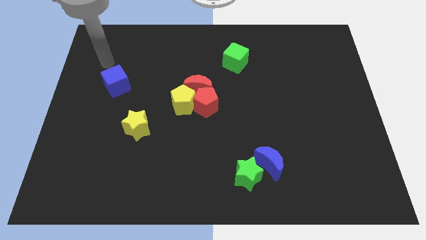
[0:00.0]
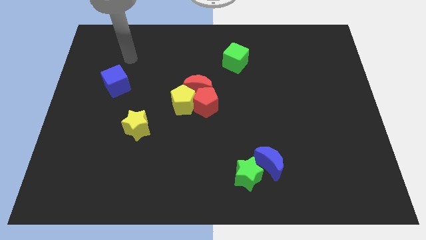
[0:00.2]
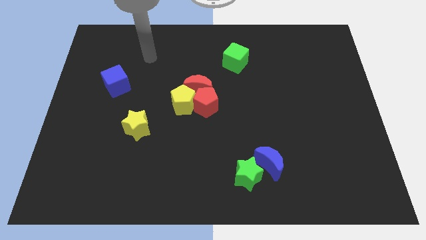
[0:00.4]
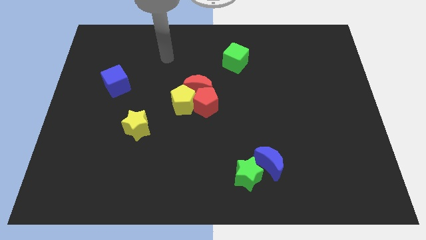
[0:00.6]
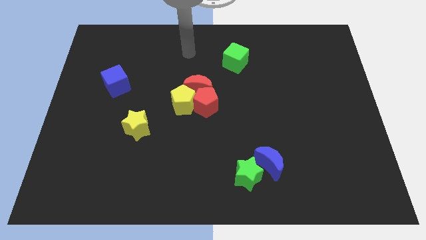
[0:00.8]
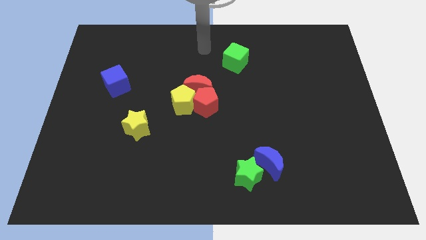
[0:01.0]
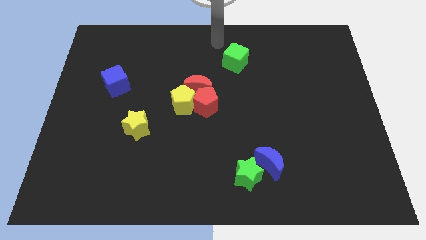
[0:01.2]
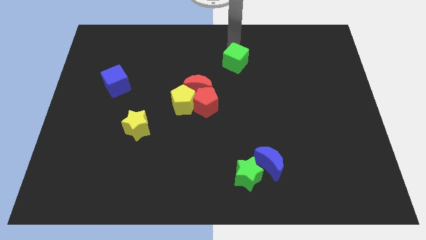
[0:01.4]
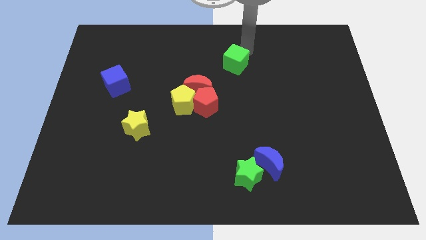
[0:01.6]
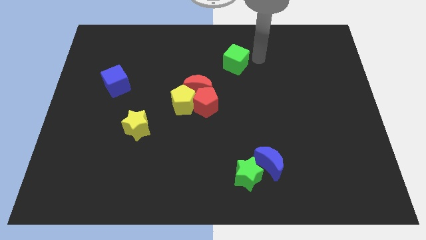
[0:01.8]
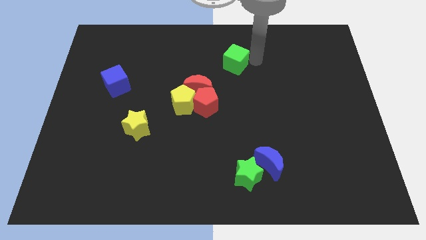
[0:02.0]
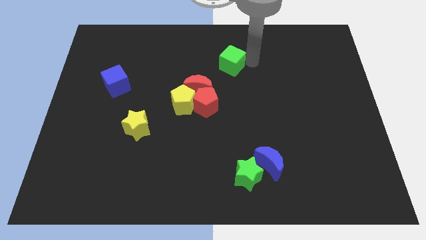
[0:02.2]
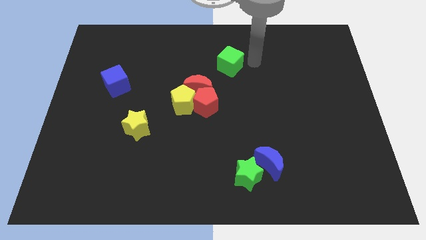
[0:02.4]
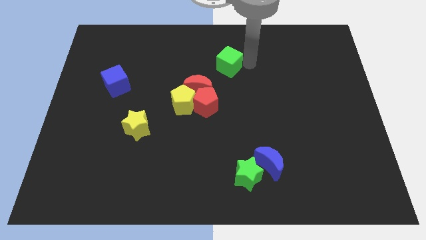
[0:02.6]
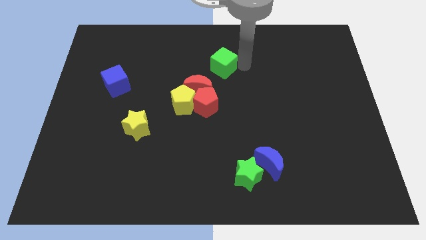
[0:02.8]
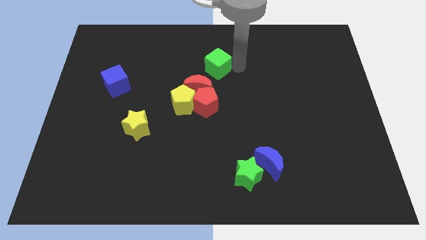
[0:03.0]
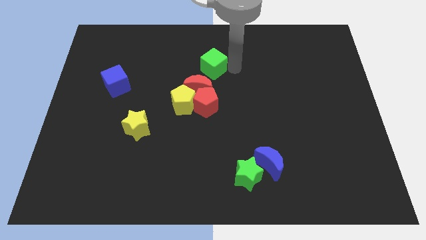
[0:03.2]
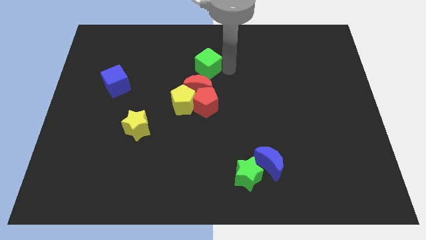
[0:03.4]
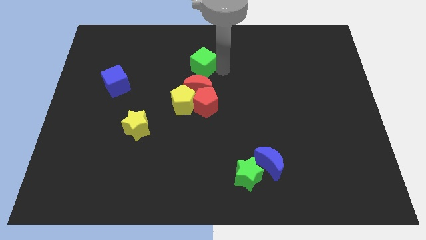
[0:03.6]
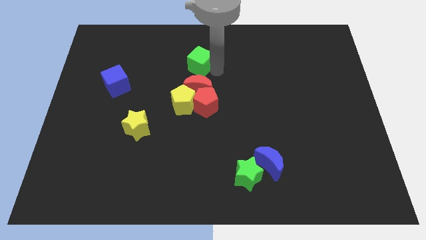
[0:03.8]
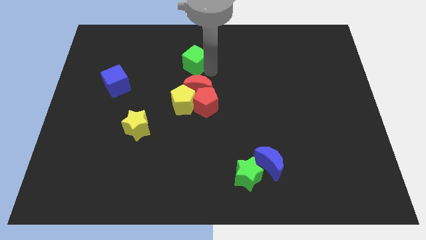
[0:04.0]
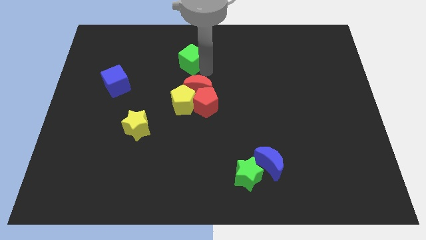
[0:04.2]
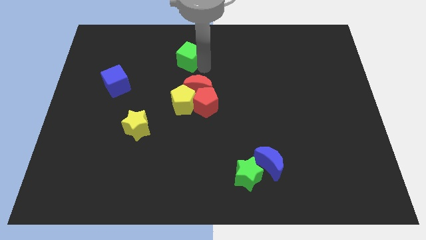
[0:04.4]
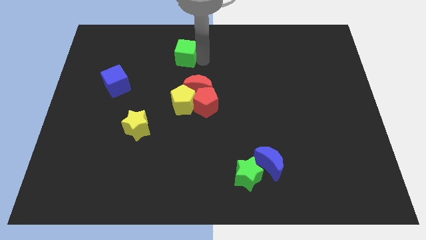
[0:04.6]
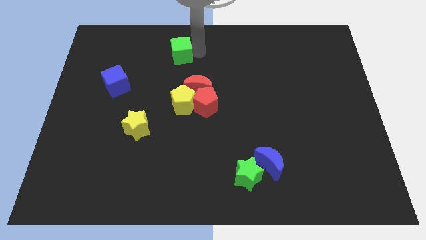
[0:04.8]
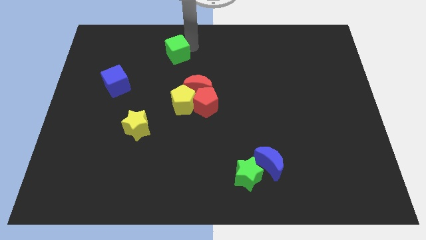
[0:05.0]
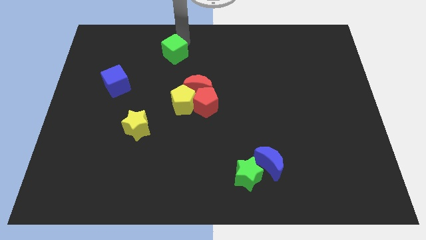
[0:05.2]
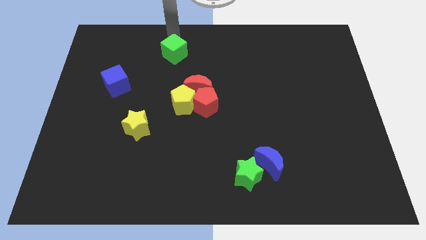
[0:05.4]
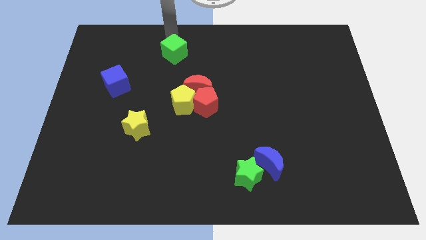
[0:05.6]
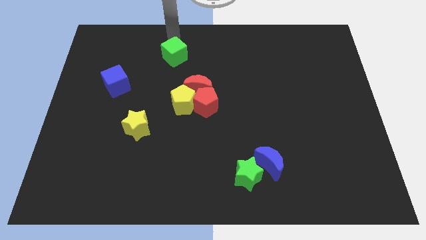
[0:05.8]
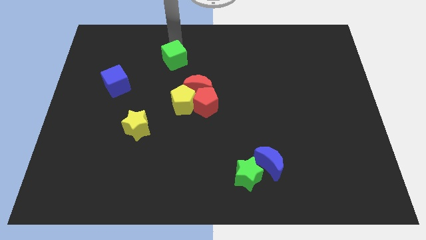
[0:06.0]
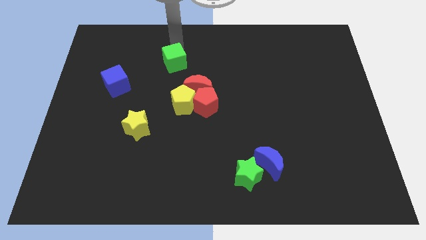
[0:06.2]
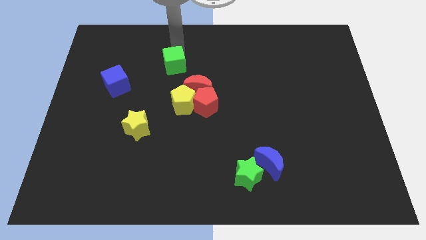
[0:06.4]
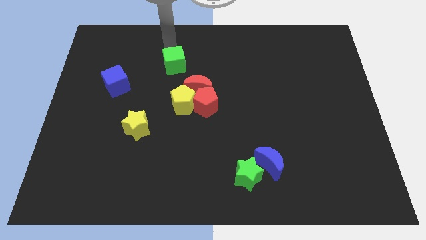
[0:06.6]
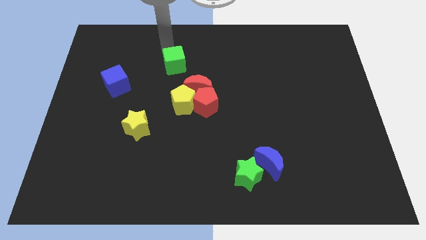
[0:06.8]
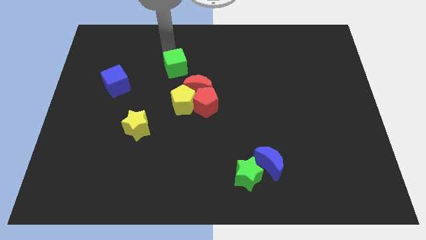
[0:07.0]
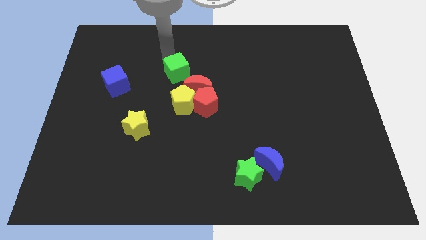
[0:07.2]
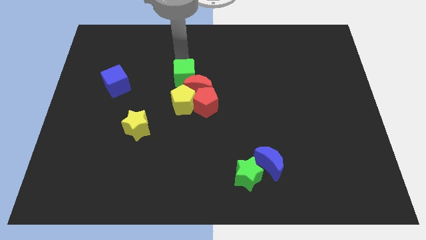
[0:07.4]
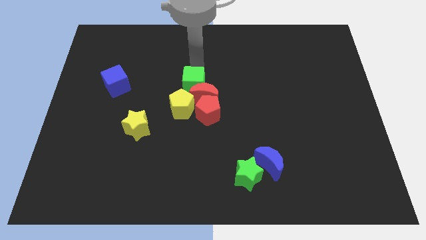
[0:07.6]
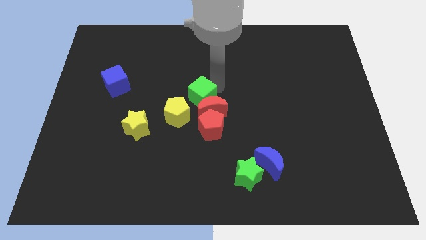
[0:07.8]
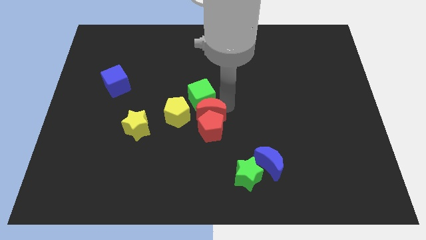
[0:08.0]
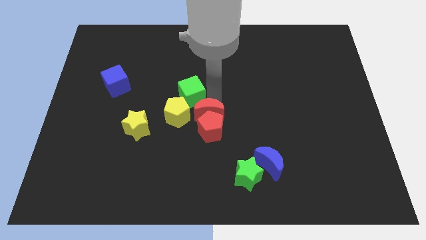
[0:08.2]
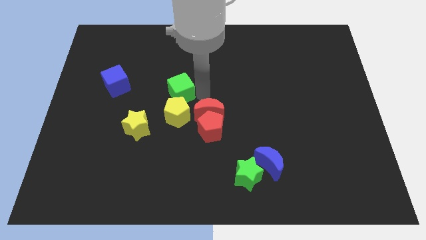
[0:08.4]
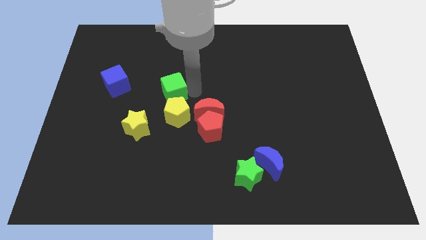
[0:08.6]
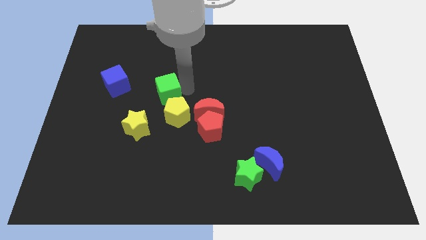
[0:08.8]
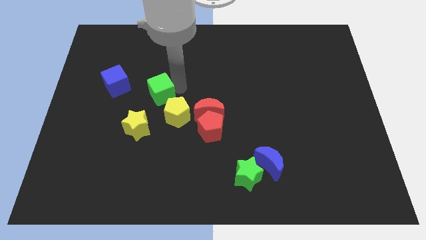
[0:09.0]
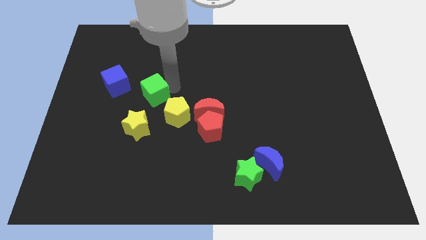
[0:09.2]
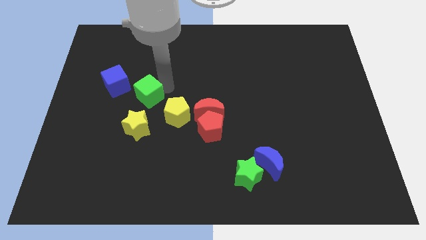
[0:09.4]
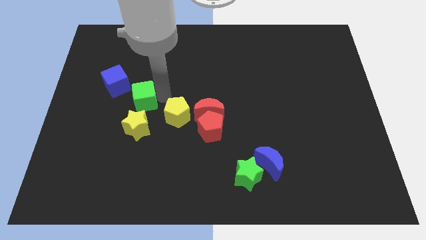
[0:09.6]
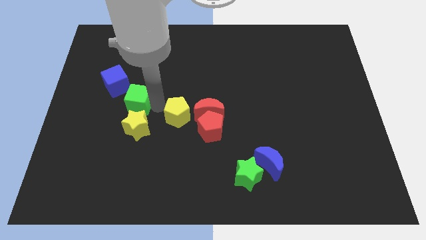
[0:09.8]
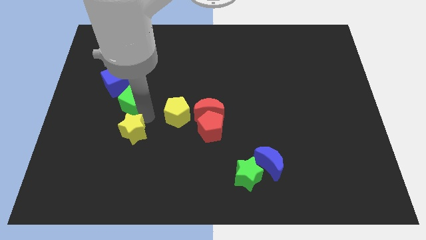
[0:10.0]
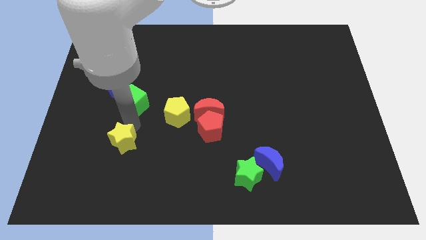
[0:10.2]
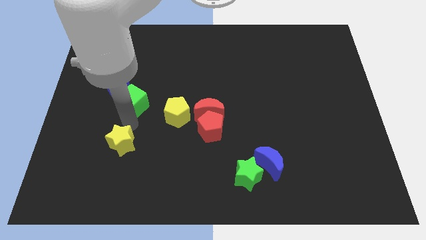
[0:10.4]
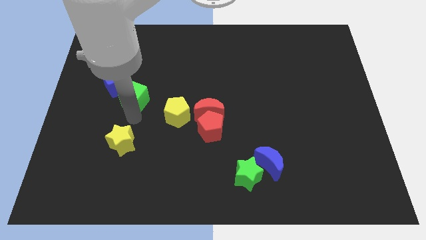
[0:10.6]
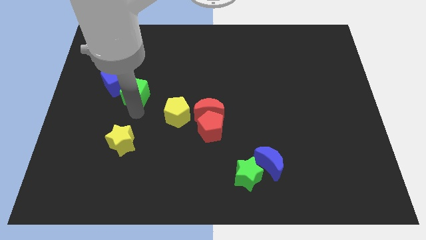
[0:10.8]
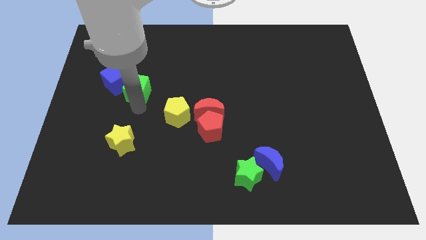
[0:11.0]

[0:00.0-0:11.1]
slide the green cube towards the blue cube

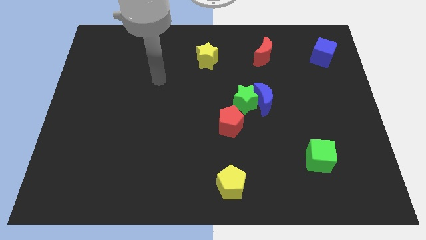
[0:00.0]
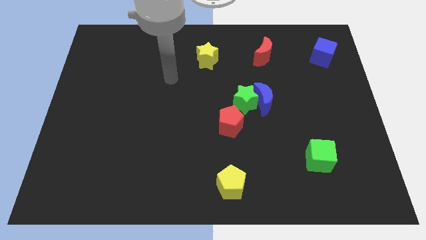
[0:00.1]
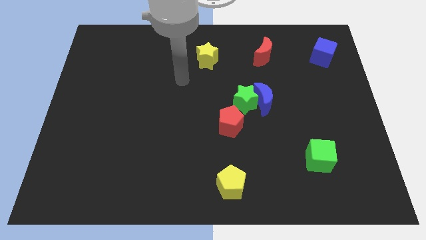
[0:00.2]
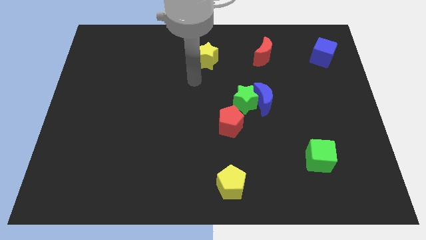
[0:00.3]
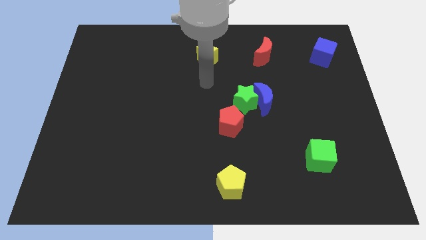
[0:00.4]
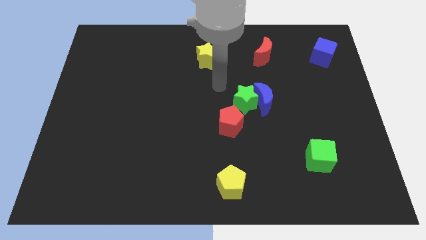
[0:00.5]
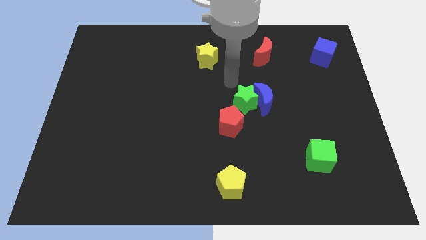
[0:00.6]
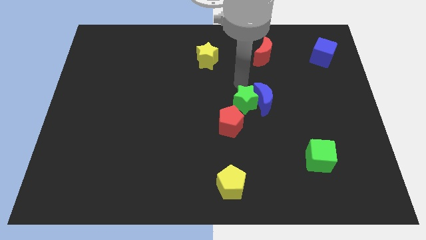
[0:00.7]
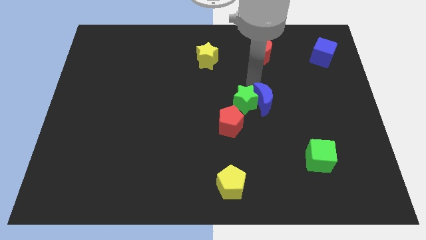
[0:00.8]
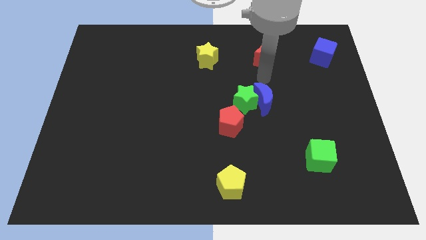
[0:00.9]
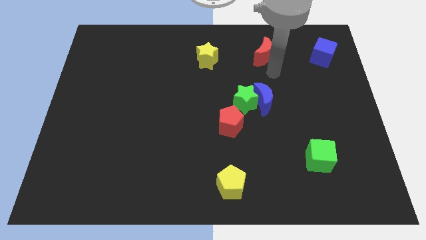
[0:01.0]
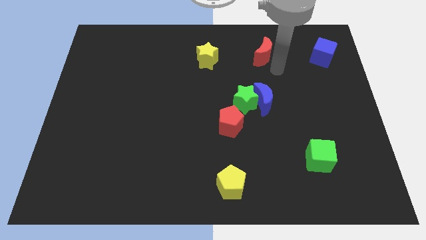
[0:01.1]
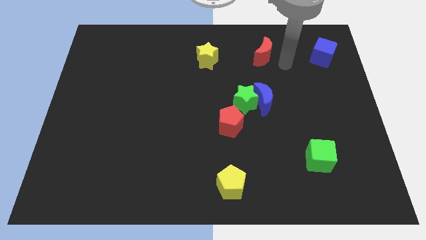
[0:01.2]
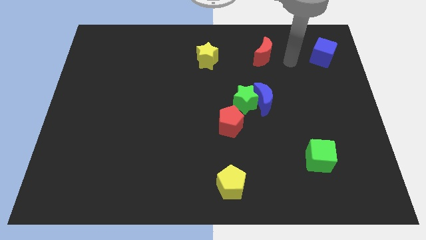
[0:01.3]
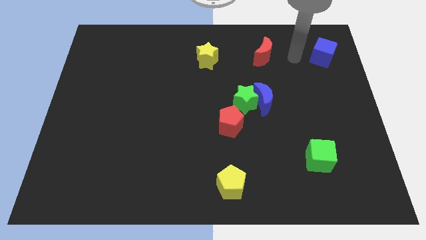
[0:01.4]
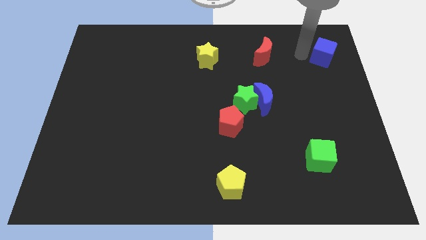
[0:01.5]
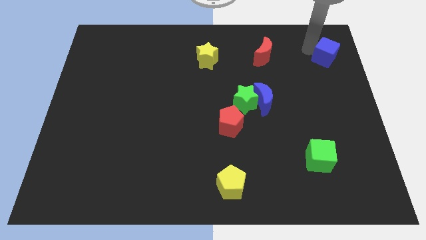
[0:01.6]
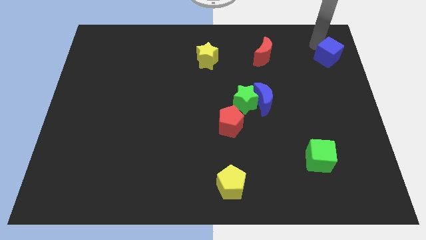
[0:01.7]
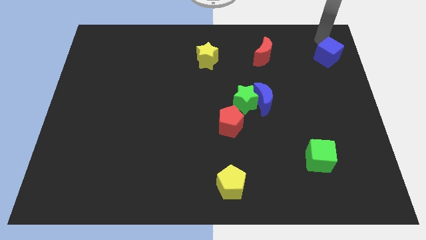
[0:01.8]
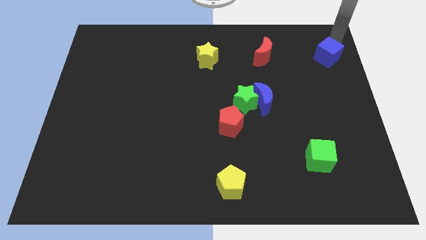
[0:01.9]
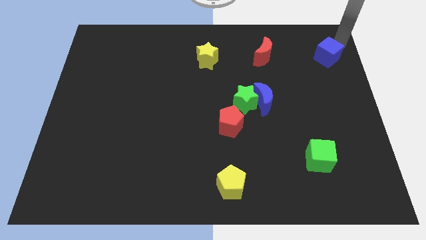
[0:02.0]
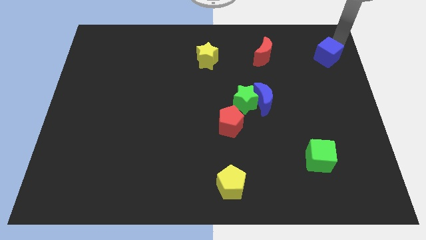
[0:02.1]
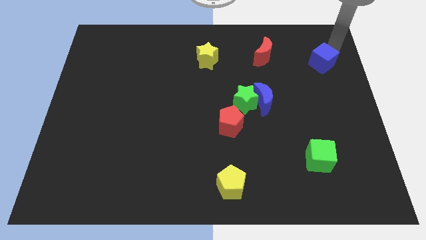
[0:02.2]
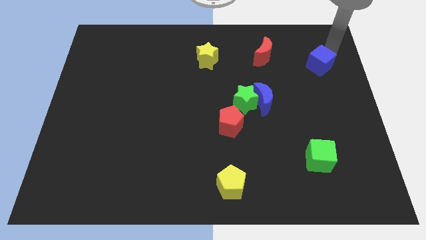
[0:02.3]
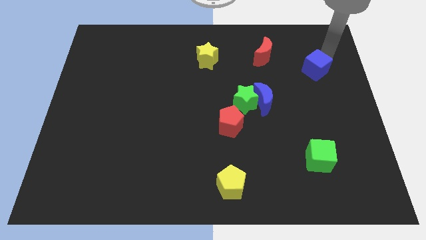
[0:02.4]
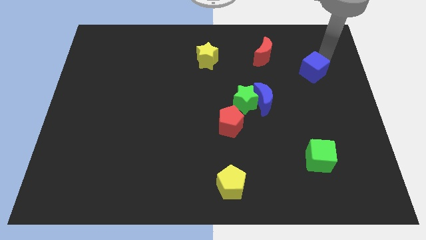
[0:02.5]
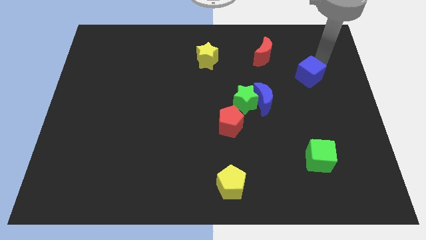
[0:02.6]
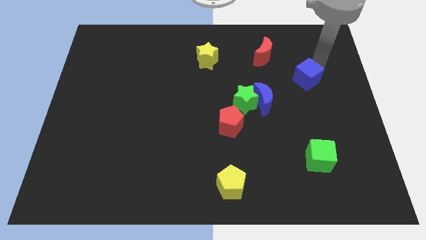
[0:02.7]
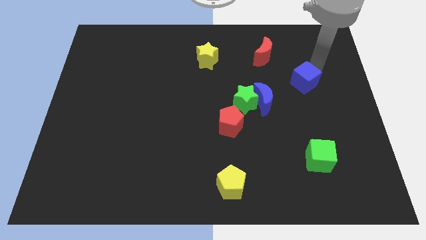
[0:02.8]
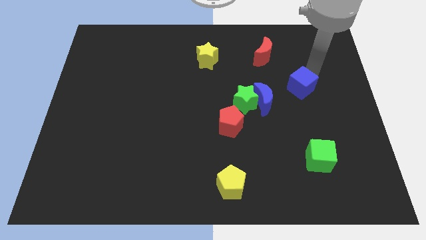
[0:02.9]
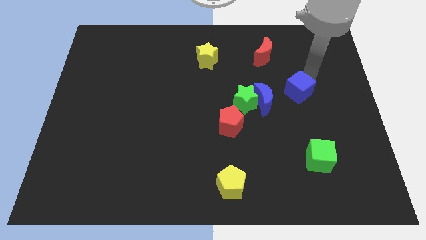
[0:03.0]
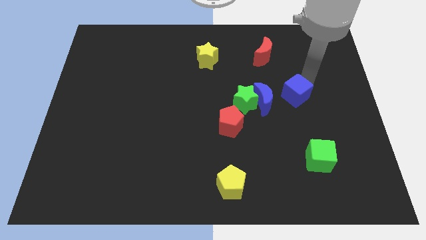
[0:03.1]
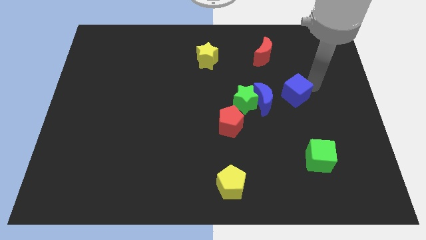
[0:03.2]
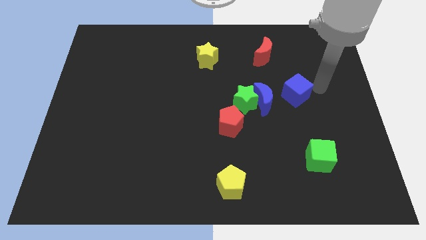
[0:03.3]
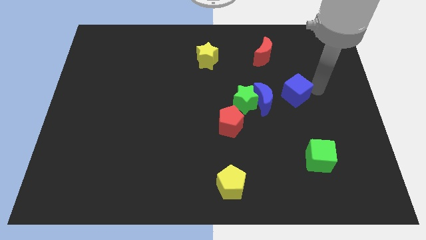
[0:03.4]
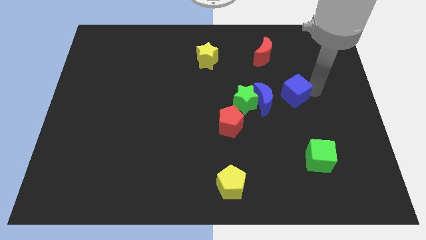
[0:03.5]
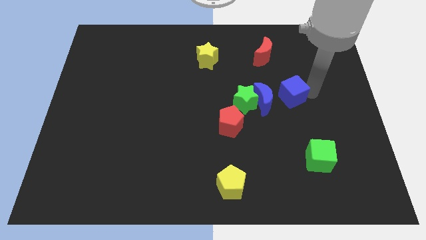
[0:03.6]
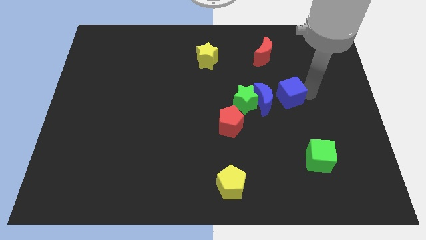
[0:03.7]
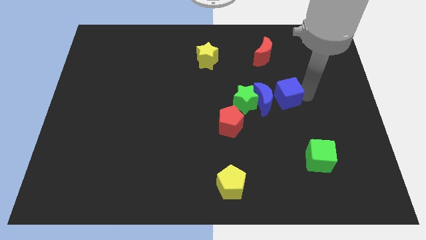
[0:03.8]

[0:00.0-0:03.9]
move the blue cube close to the blue moon
